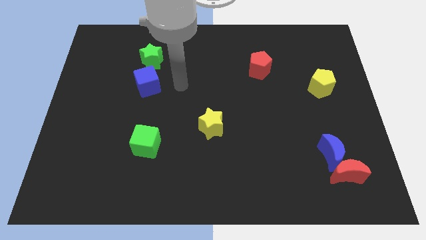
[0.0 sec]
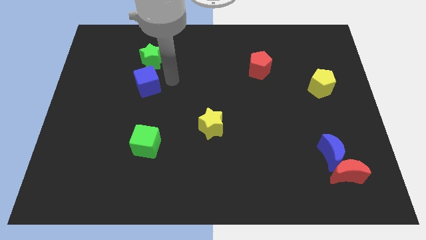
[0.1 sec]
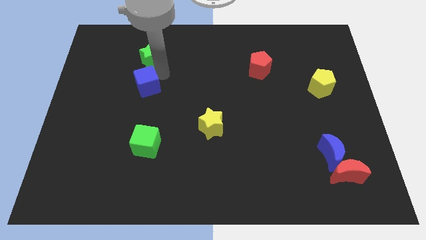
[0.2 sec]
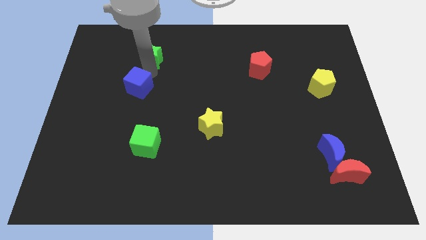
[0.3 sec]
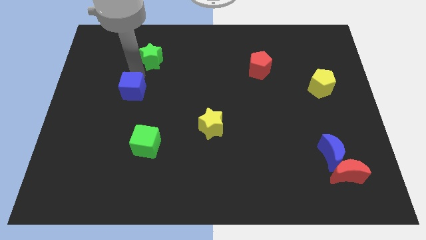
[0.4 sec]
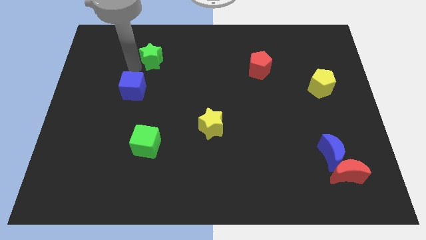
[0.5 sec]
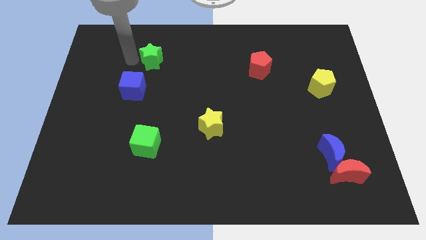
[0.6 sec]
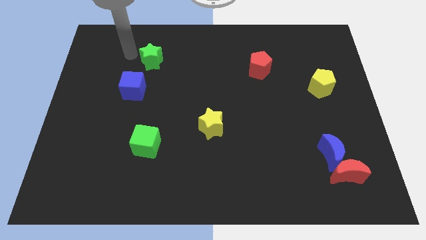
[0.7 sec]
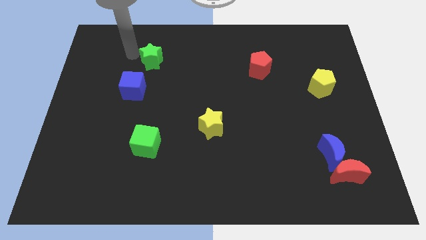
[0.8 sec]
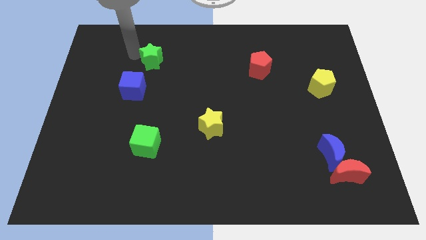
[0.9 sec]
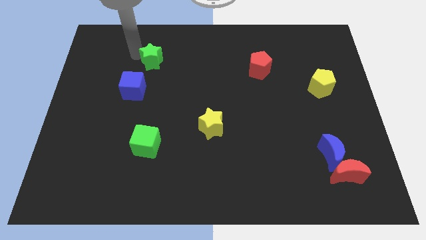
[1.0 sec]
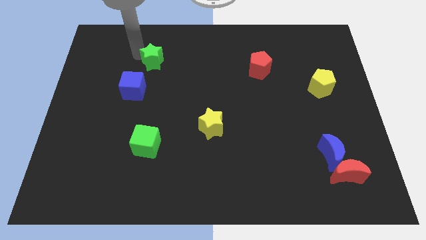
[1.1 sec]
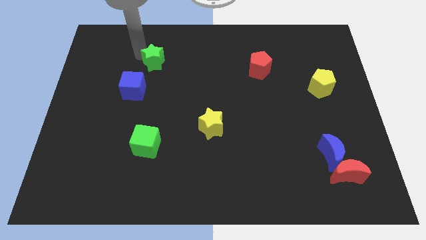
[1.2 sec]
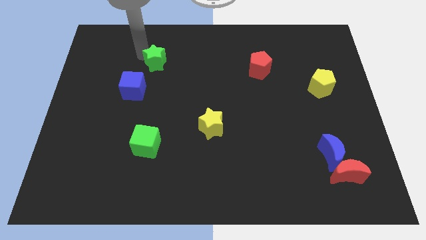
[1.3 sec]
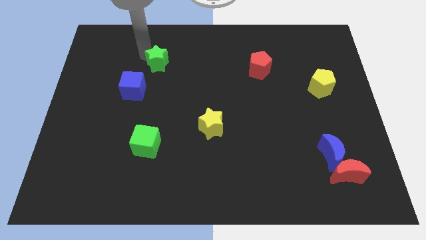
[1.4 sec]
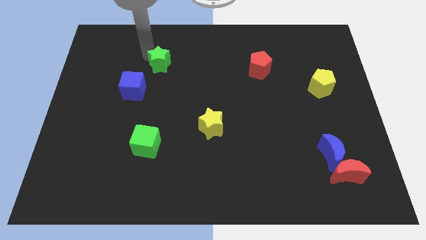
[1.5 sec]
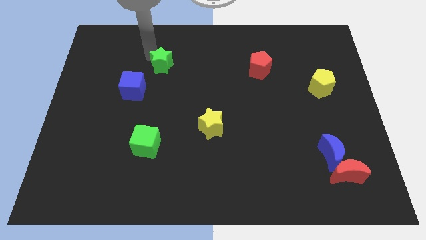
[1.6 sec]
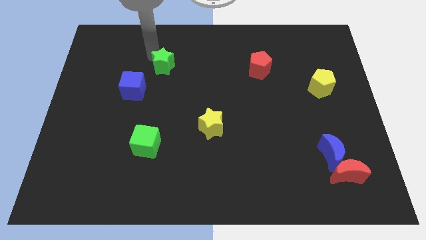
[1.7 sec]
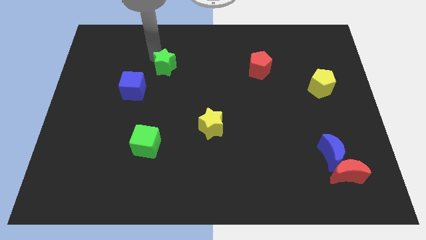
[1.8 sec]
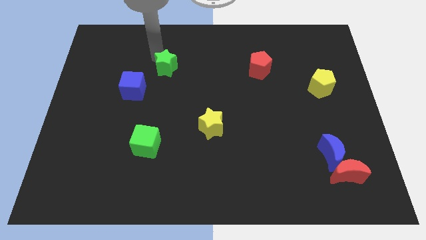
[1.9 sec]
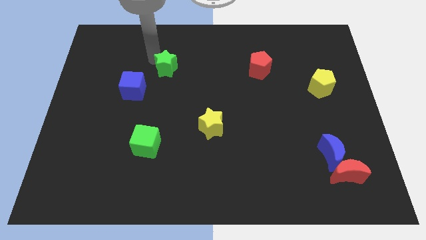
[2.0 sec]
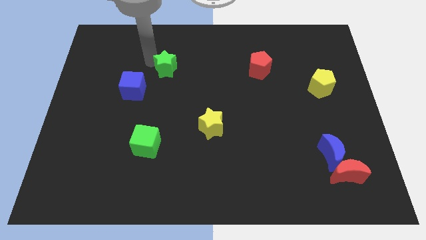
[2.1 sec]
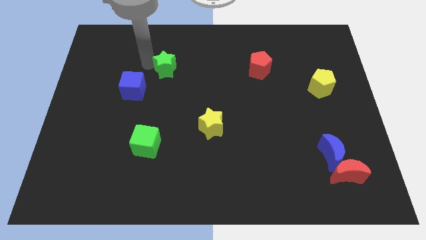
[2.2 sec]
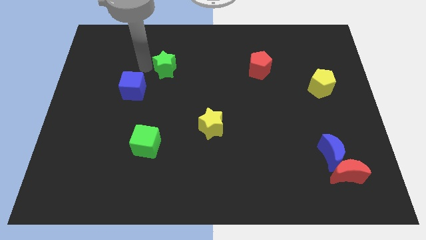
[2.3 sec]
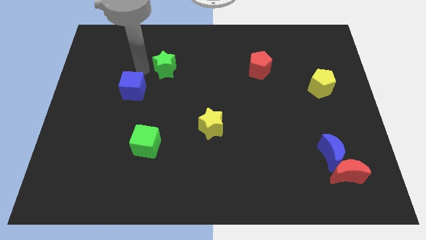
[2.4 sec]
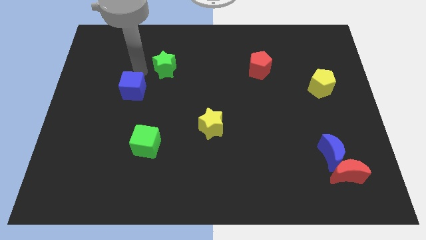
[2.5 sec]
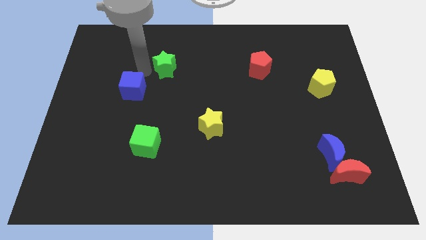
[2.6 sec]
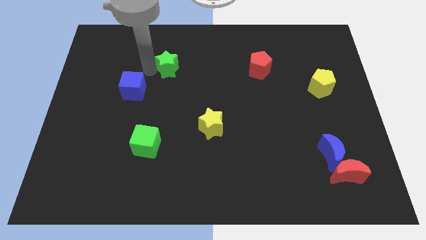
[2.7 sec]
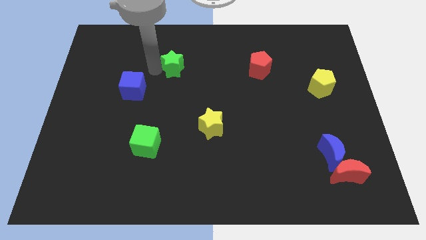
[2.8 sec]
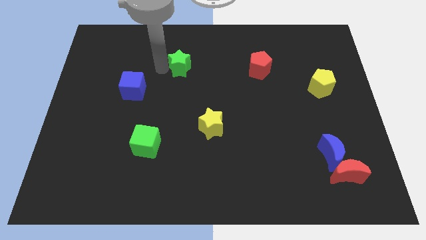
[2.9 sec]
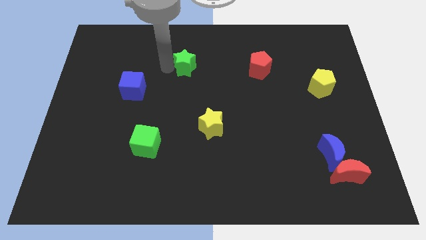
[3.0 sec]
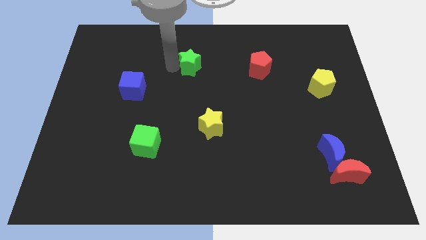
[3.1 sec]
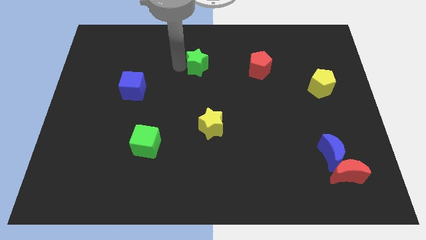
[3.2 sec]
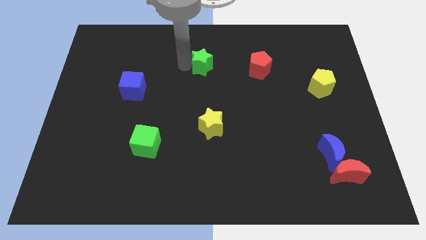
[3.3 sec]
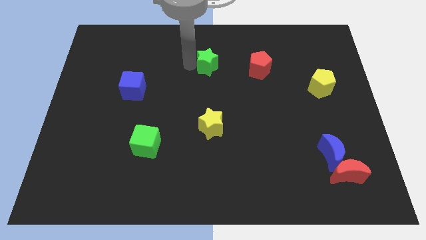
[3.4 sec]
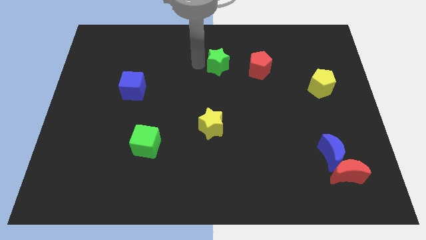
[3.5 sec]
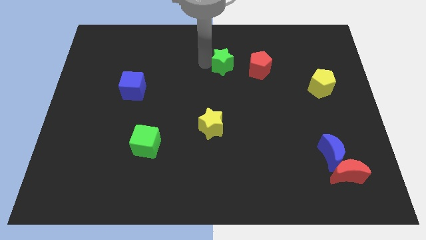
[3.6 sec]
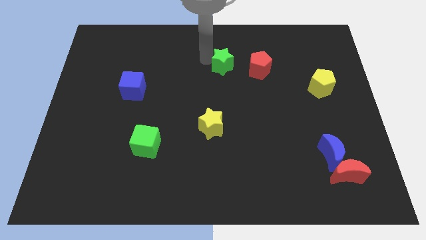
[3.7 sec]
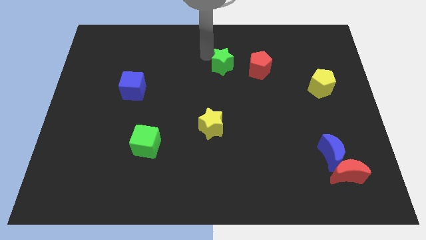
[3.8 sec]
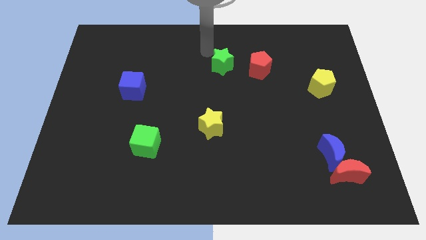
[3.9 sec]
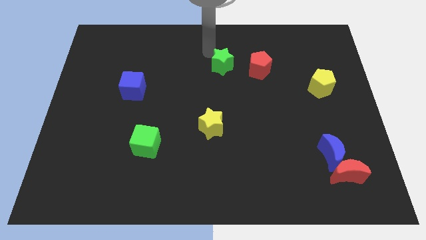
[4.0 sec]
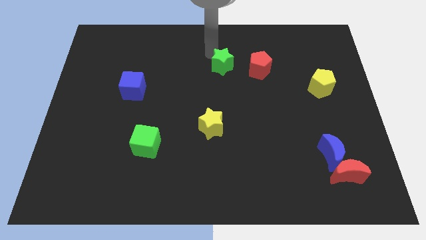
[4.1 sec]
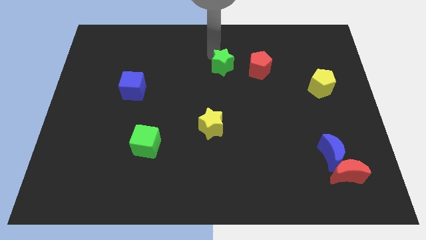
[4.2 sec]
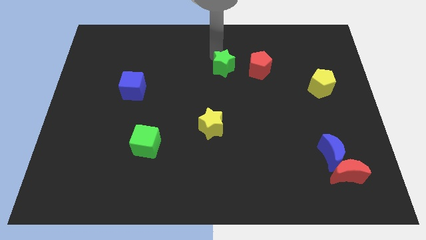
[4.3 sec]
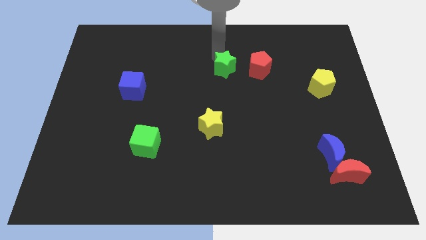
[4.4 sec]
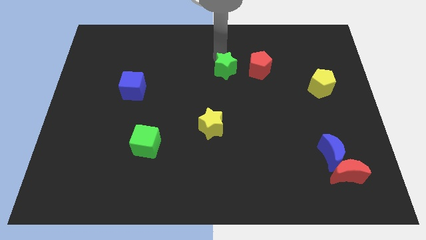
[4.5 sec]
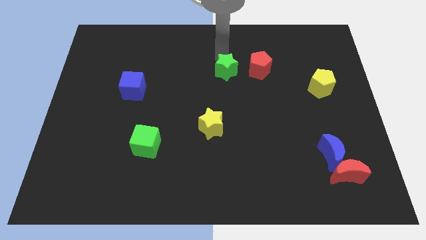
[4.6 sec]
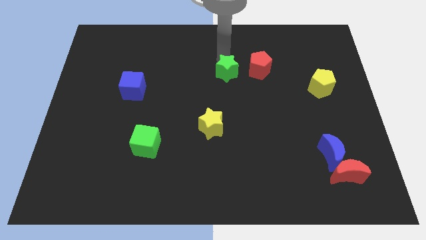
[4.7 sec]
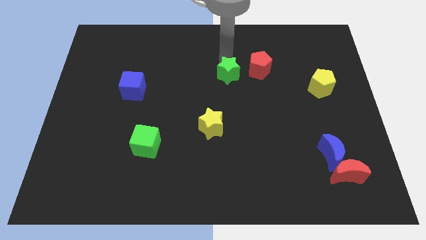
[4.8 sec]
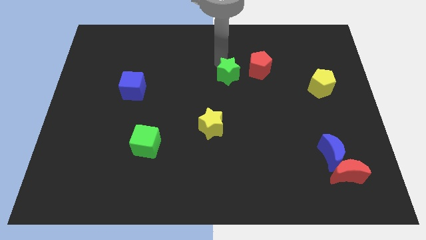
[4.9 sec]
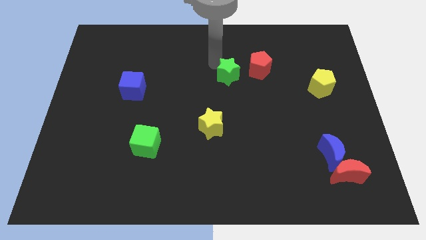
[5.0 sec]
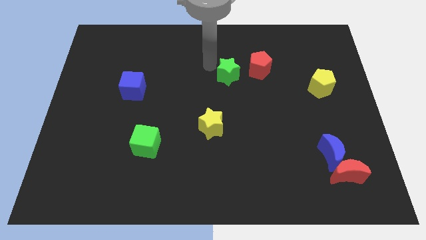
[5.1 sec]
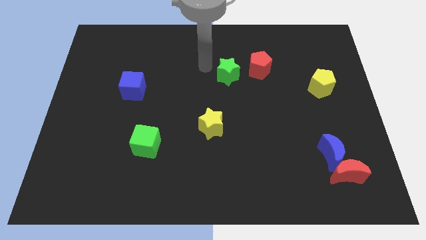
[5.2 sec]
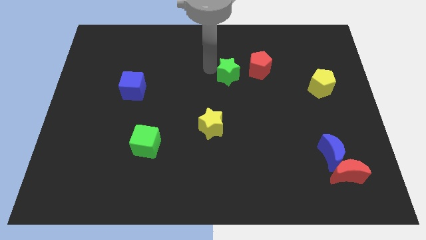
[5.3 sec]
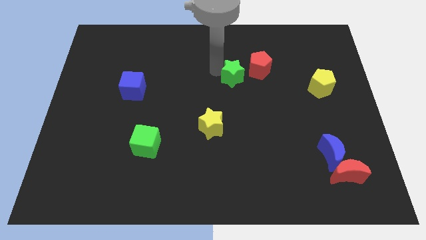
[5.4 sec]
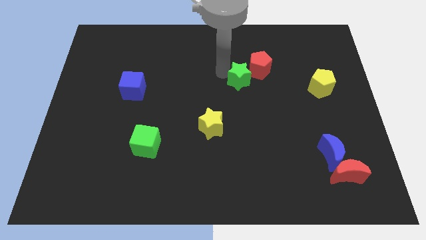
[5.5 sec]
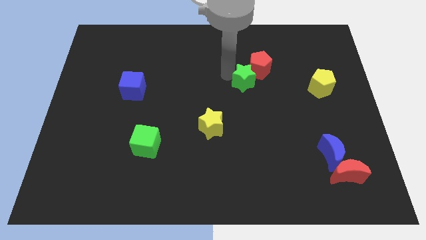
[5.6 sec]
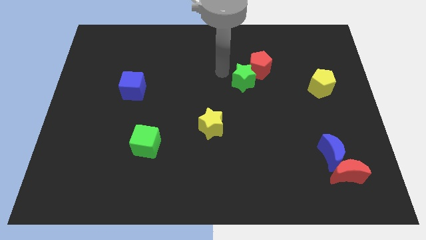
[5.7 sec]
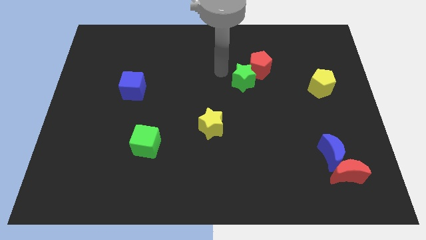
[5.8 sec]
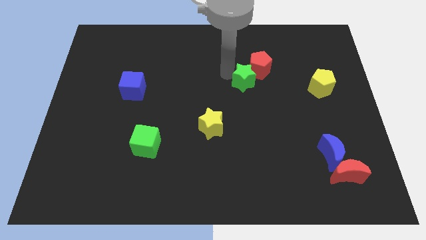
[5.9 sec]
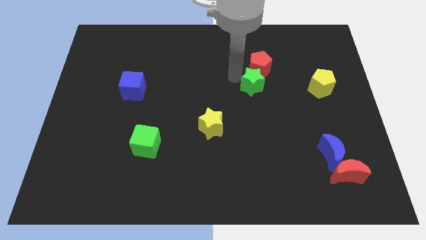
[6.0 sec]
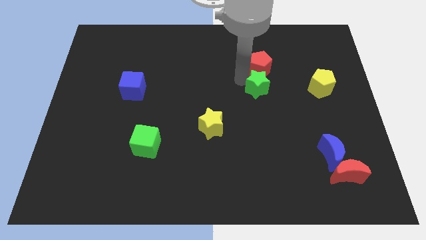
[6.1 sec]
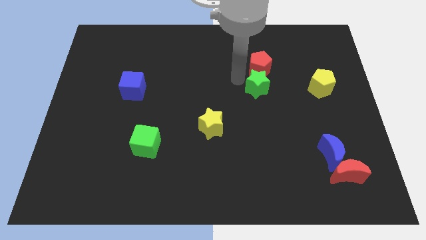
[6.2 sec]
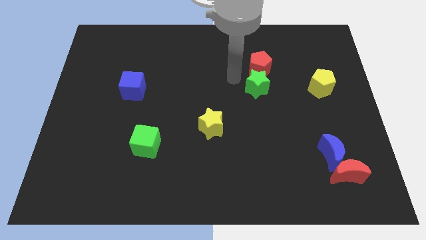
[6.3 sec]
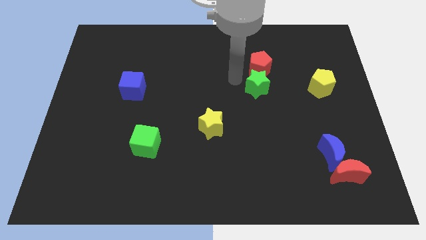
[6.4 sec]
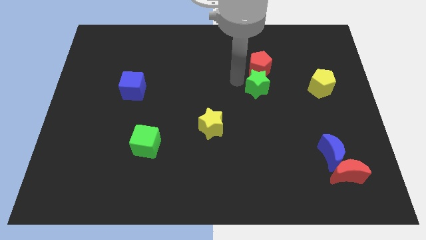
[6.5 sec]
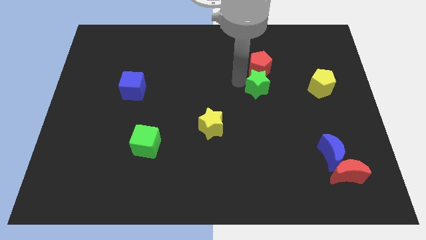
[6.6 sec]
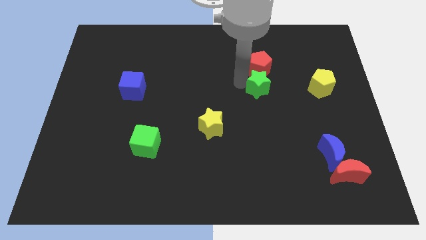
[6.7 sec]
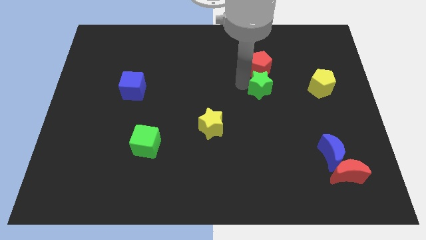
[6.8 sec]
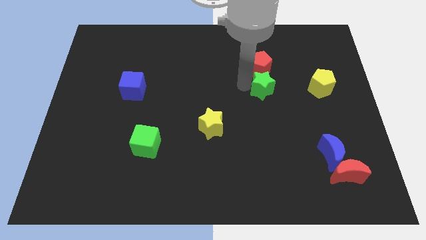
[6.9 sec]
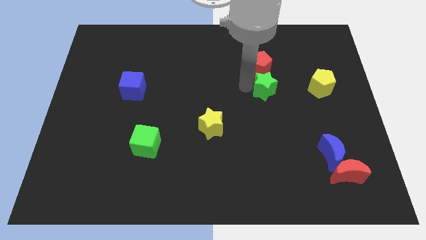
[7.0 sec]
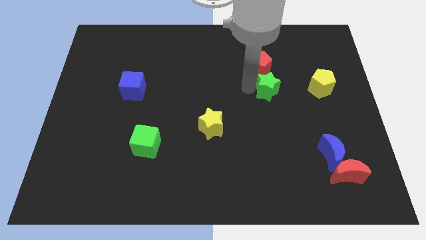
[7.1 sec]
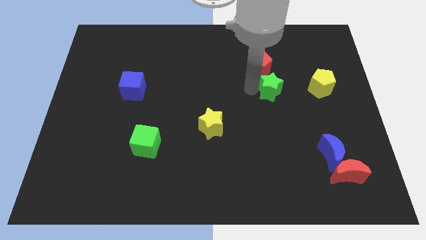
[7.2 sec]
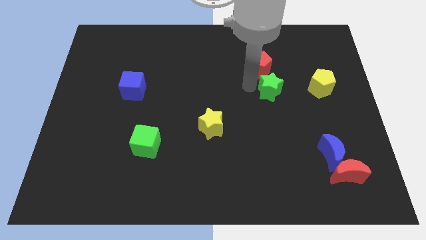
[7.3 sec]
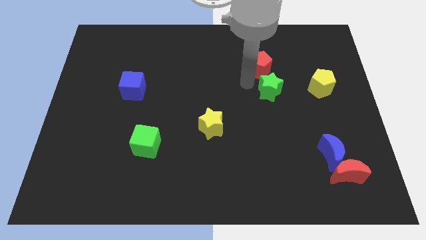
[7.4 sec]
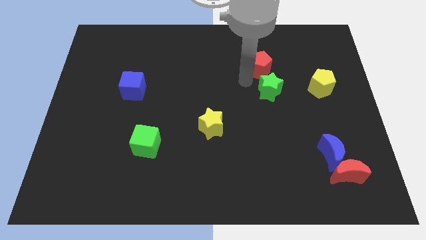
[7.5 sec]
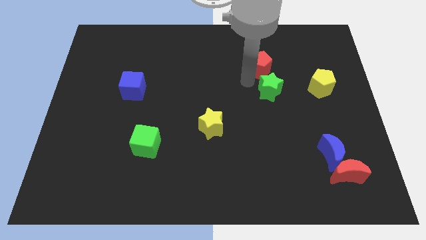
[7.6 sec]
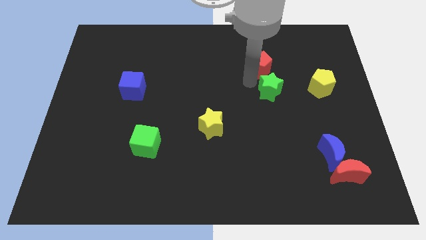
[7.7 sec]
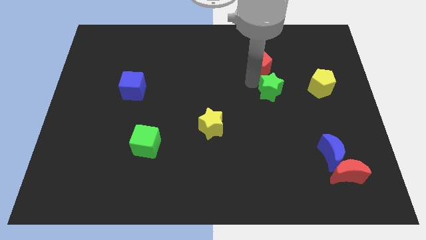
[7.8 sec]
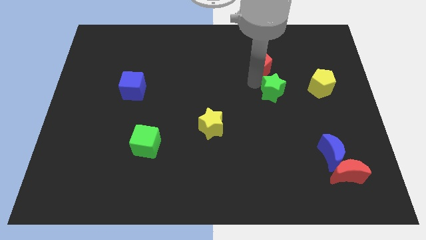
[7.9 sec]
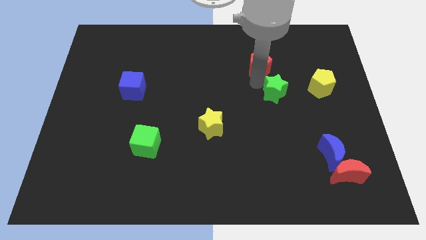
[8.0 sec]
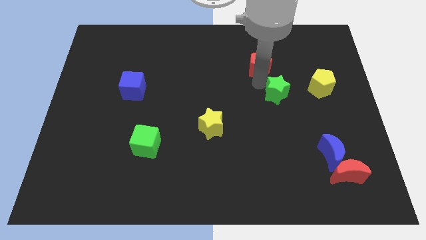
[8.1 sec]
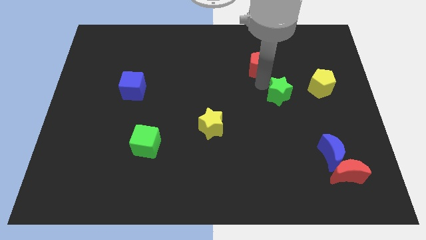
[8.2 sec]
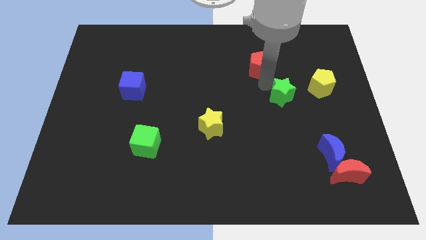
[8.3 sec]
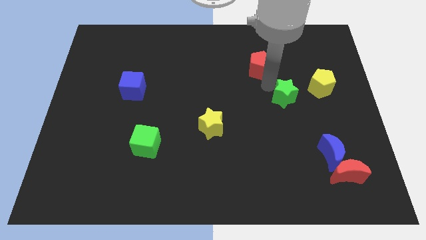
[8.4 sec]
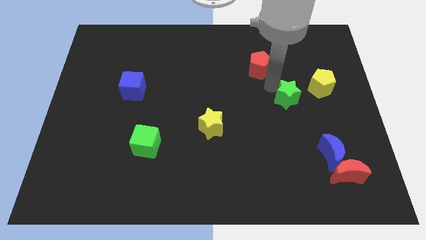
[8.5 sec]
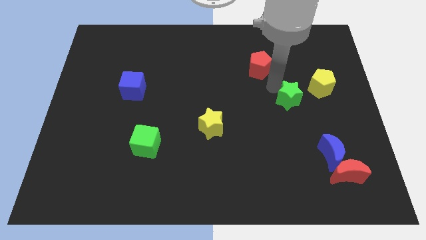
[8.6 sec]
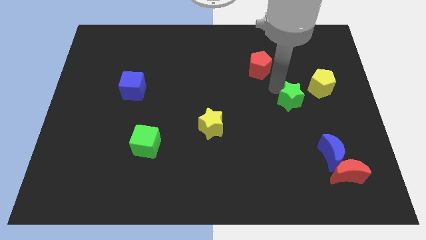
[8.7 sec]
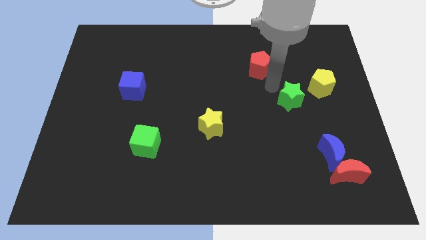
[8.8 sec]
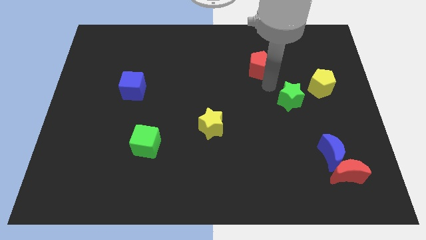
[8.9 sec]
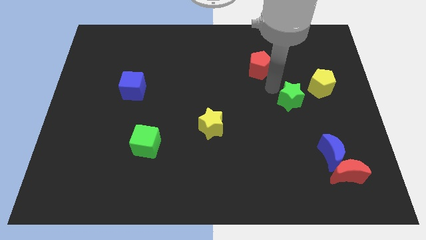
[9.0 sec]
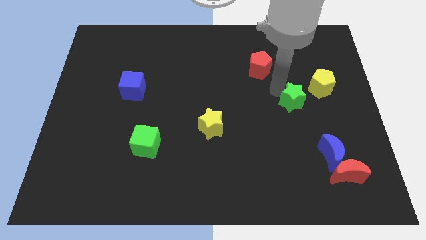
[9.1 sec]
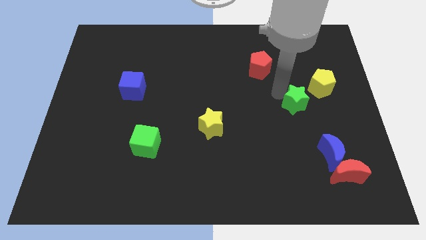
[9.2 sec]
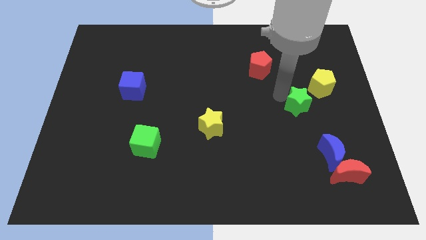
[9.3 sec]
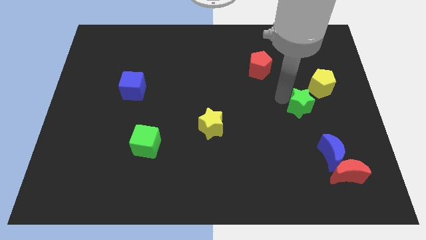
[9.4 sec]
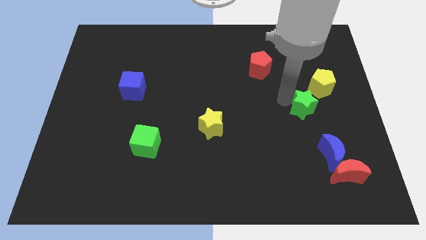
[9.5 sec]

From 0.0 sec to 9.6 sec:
slide the green star to the top side of the blue moon
